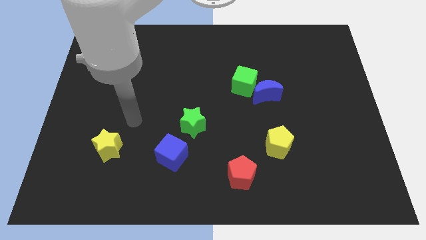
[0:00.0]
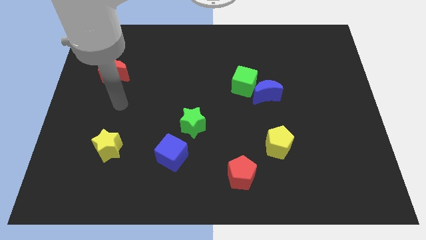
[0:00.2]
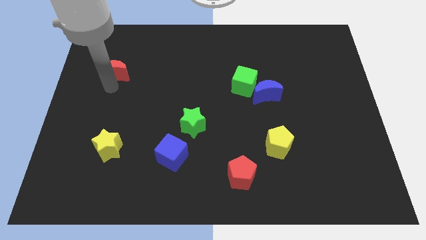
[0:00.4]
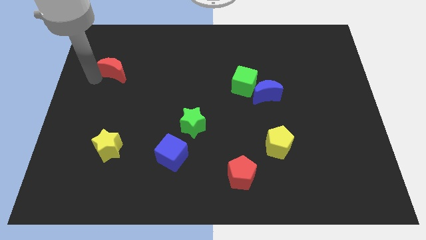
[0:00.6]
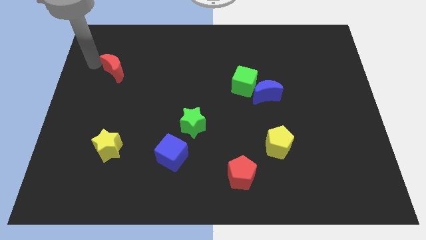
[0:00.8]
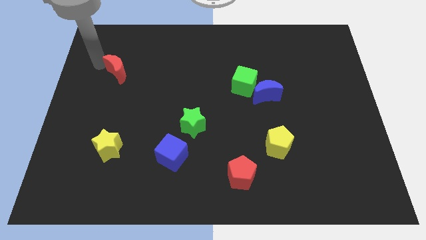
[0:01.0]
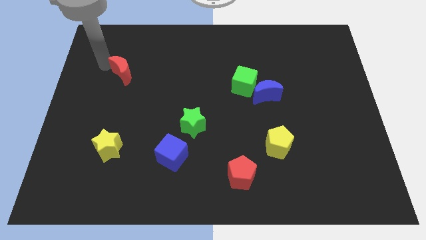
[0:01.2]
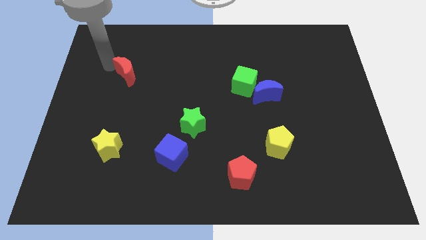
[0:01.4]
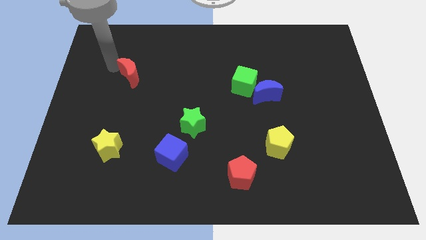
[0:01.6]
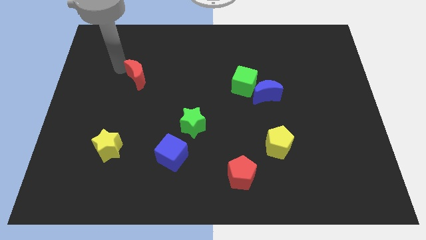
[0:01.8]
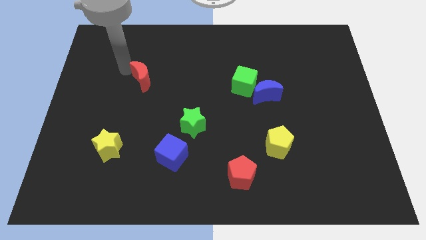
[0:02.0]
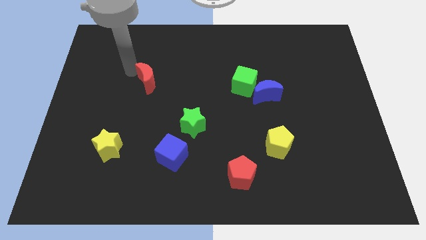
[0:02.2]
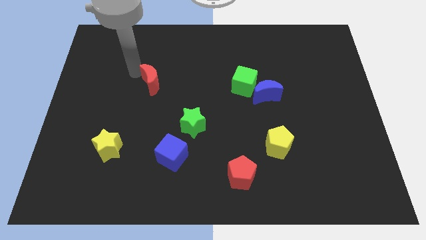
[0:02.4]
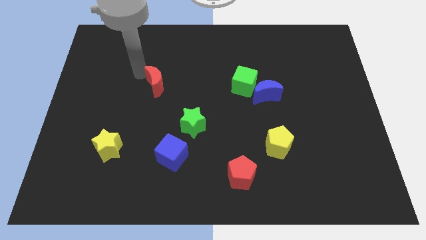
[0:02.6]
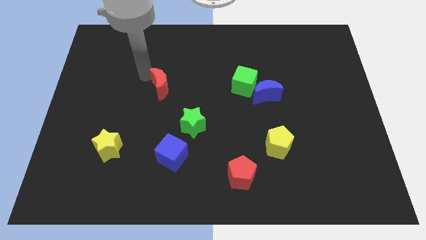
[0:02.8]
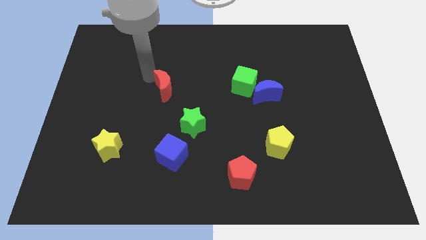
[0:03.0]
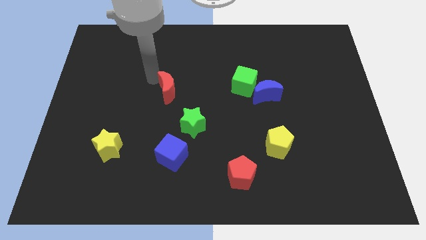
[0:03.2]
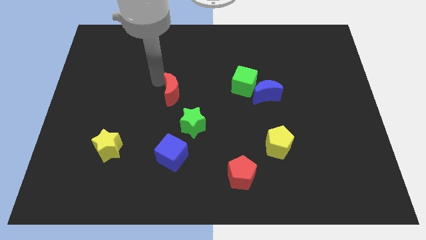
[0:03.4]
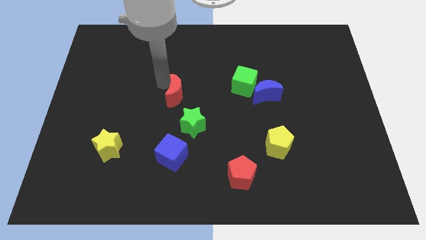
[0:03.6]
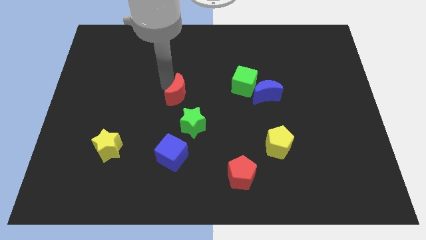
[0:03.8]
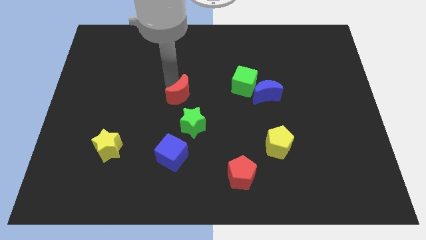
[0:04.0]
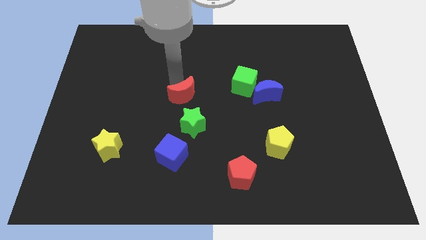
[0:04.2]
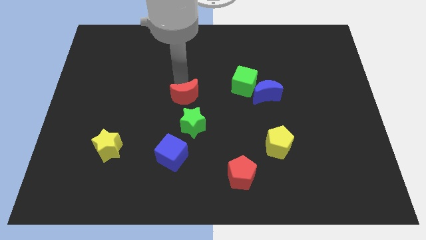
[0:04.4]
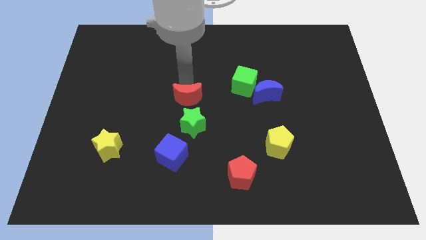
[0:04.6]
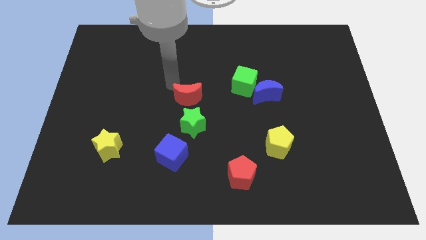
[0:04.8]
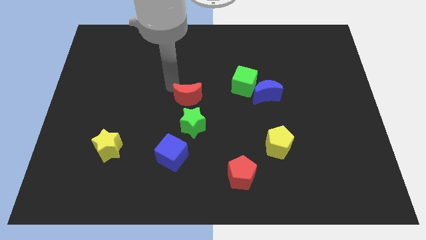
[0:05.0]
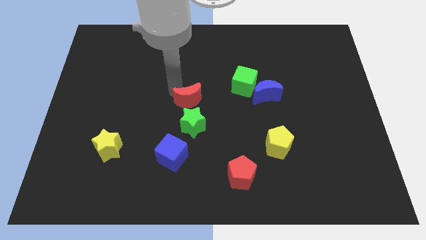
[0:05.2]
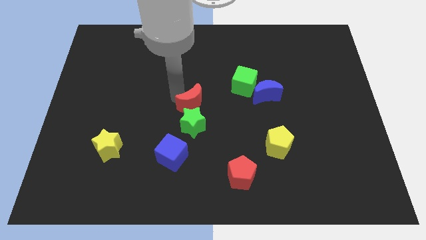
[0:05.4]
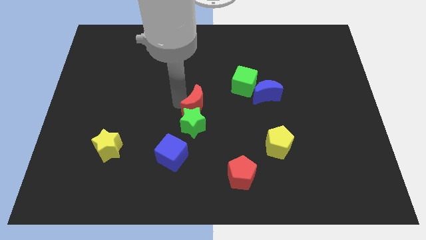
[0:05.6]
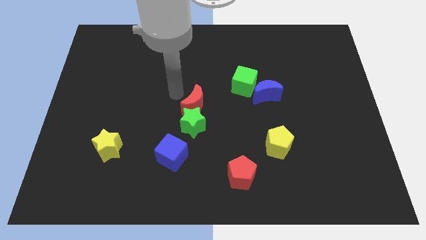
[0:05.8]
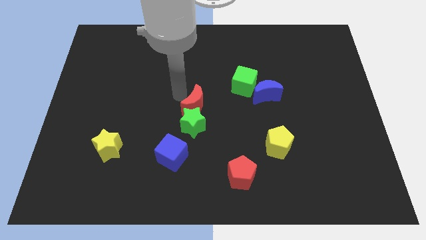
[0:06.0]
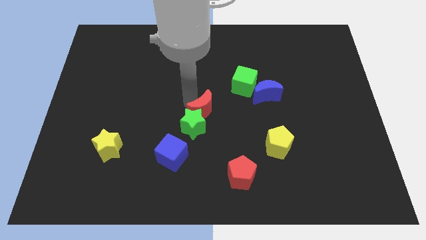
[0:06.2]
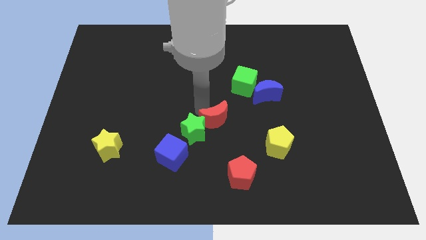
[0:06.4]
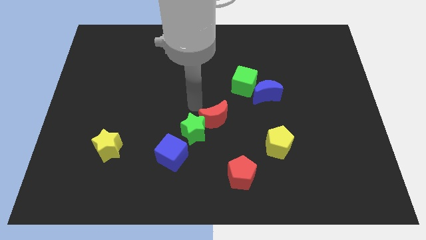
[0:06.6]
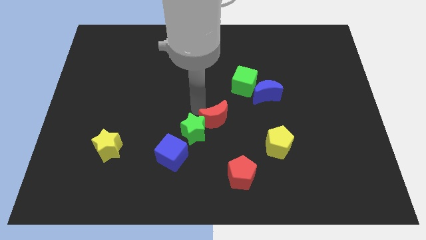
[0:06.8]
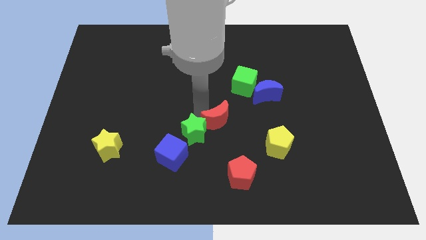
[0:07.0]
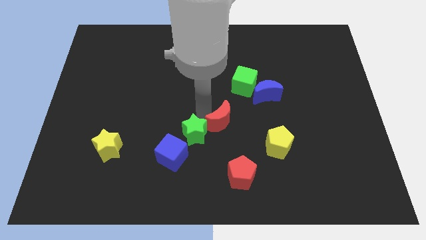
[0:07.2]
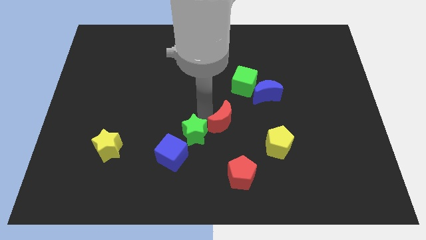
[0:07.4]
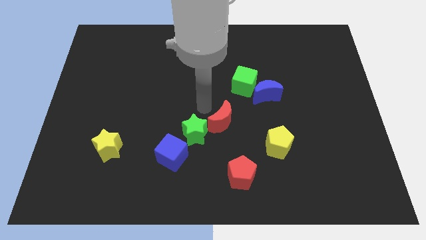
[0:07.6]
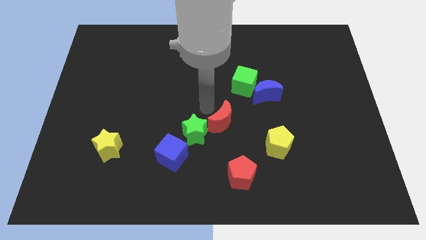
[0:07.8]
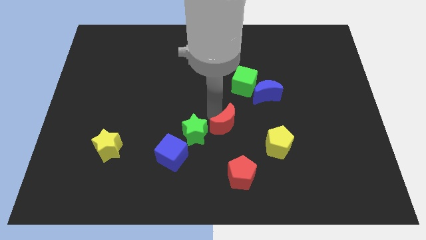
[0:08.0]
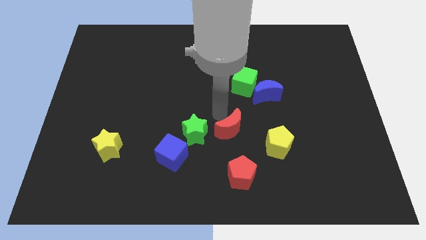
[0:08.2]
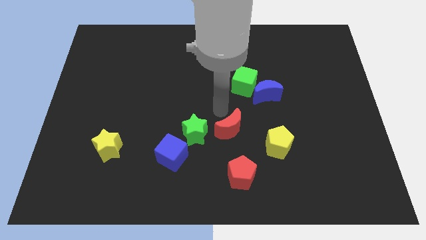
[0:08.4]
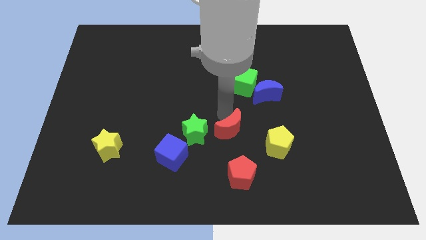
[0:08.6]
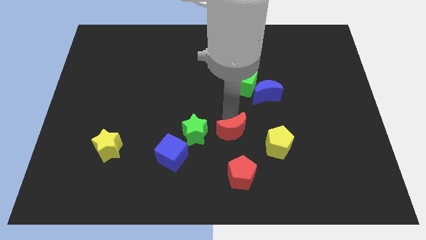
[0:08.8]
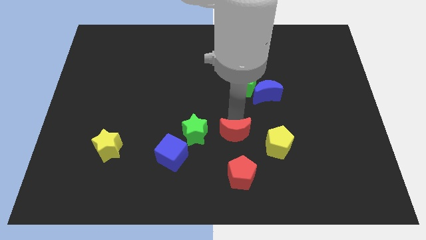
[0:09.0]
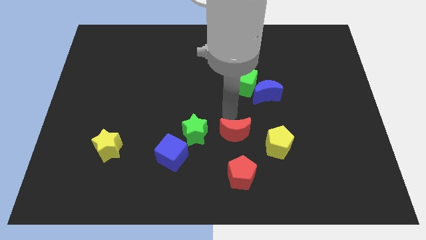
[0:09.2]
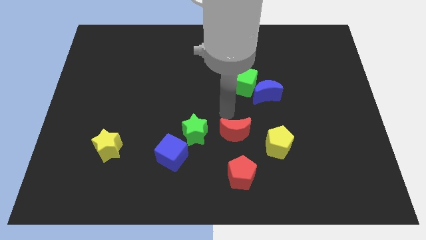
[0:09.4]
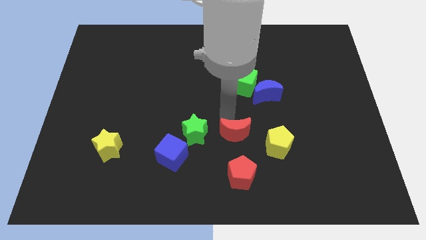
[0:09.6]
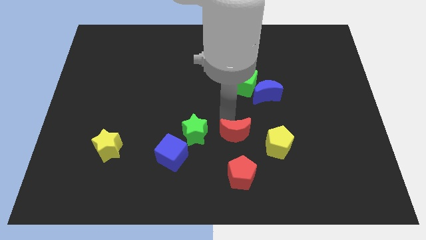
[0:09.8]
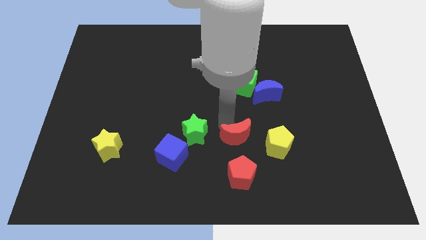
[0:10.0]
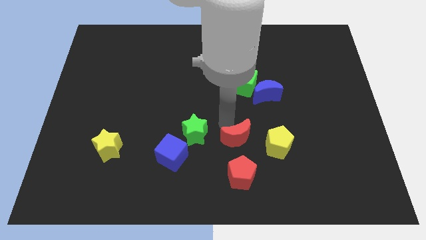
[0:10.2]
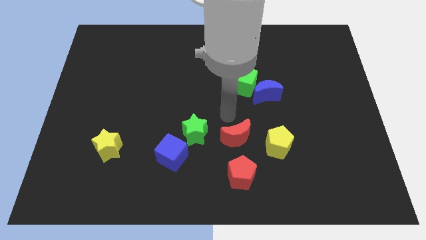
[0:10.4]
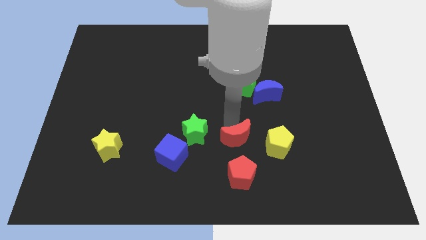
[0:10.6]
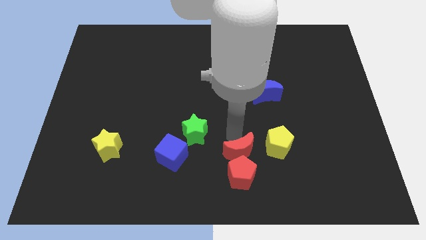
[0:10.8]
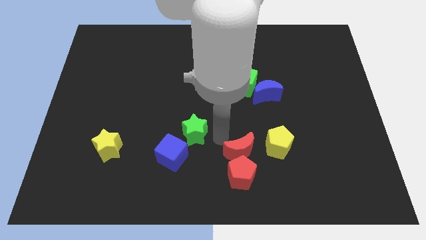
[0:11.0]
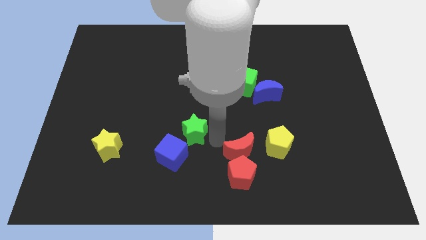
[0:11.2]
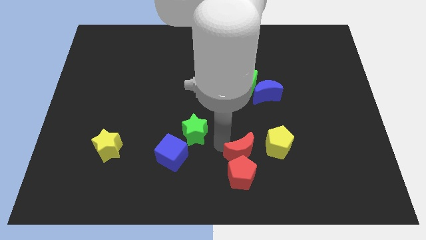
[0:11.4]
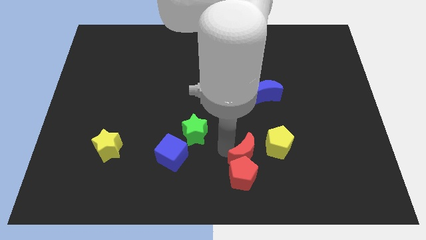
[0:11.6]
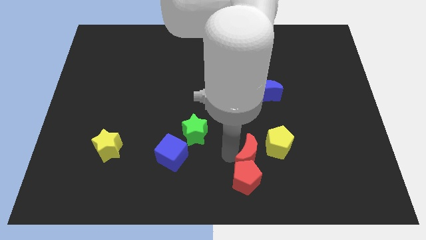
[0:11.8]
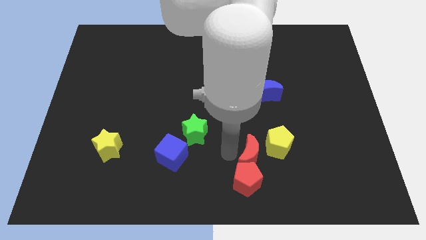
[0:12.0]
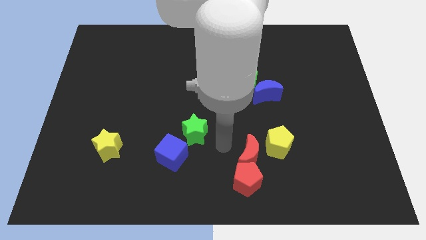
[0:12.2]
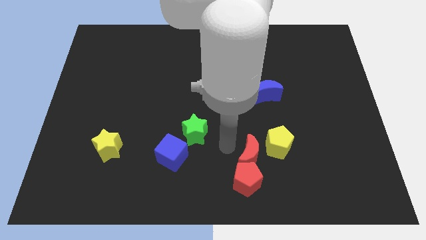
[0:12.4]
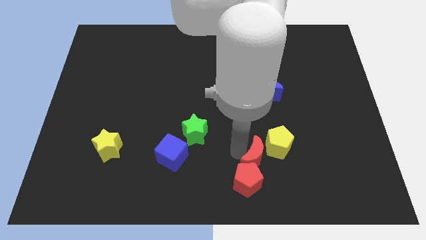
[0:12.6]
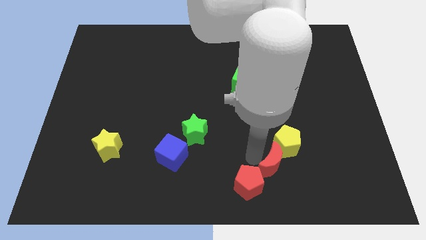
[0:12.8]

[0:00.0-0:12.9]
move the red moon to the right of the red pentagon

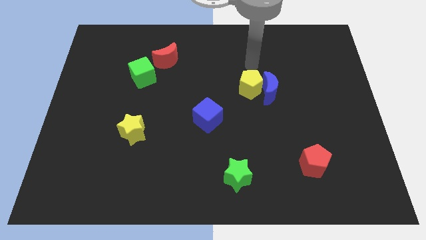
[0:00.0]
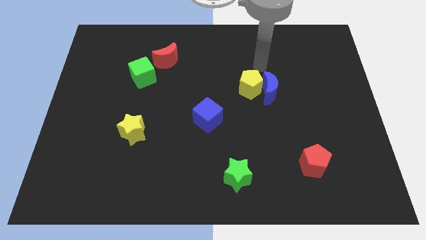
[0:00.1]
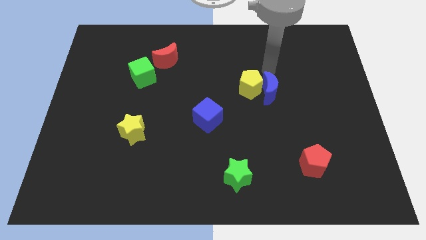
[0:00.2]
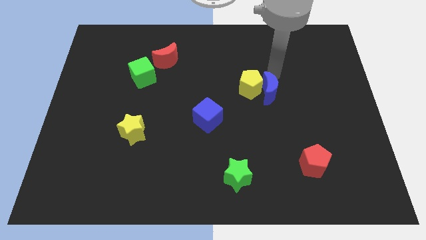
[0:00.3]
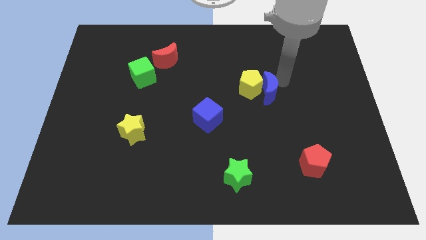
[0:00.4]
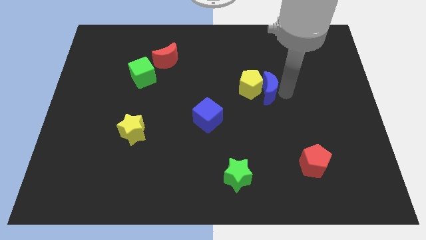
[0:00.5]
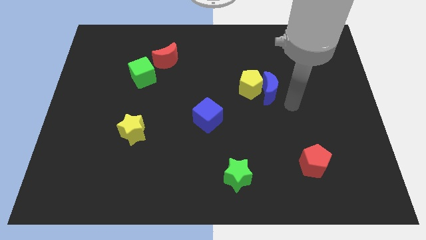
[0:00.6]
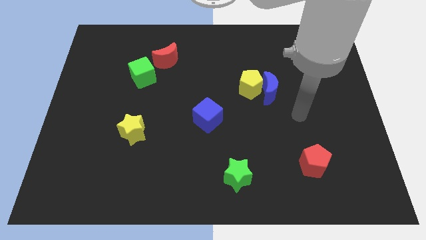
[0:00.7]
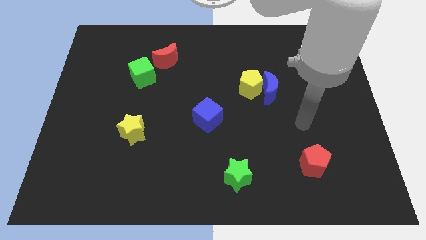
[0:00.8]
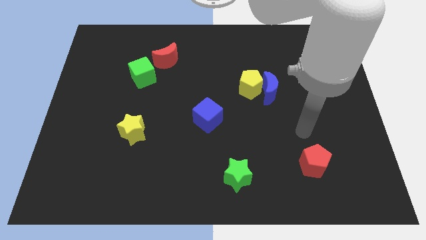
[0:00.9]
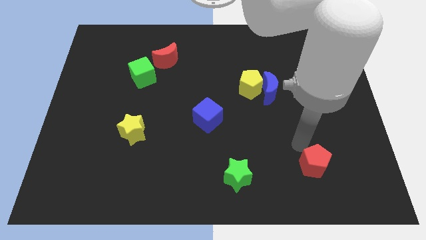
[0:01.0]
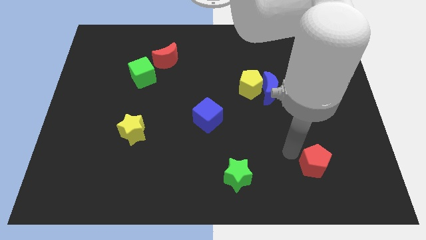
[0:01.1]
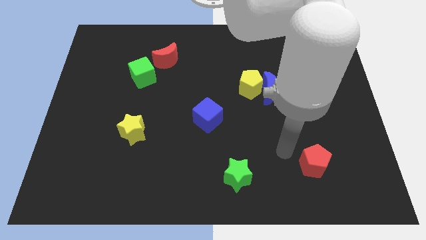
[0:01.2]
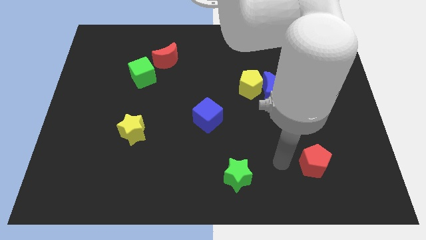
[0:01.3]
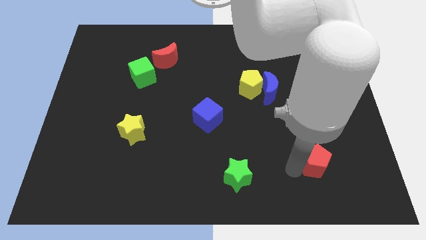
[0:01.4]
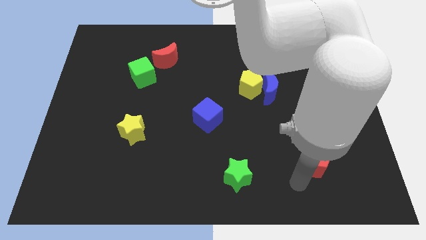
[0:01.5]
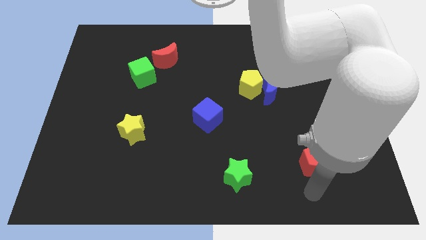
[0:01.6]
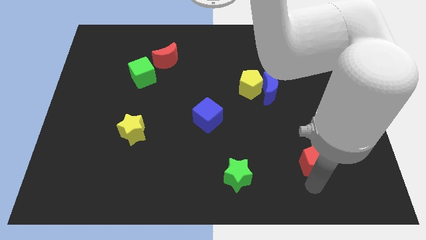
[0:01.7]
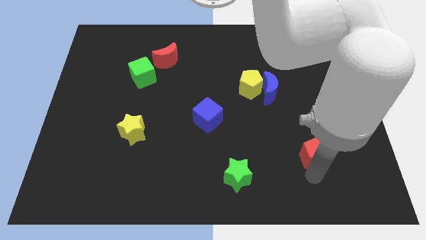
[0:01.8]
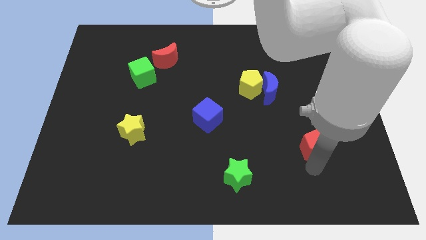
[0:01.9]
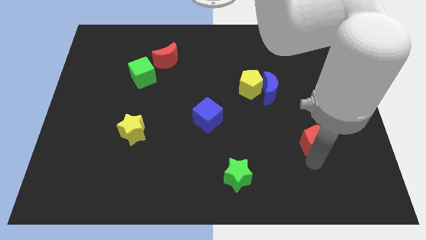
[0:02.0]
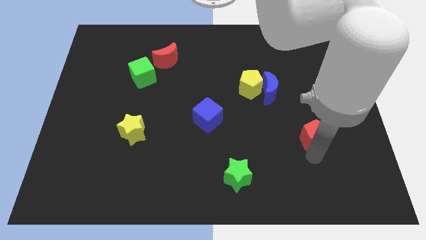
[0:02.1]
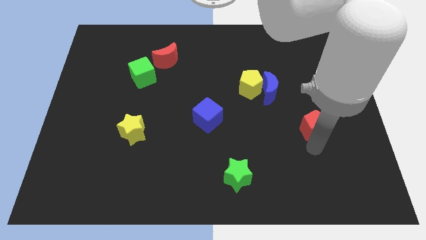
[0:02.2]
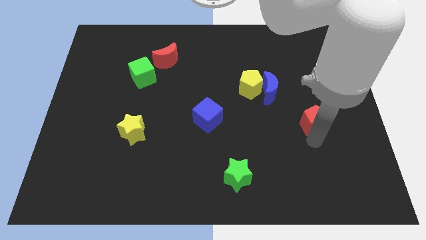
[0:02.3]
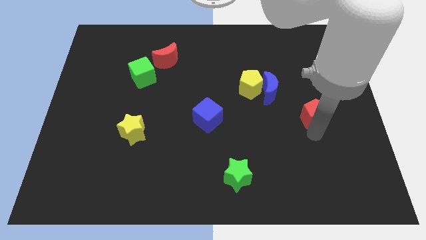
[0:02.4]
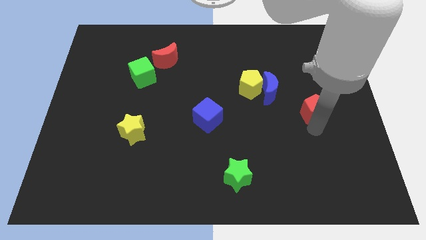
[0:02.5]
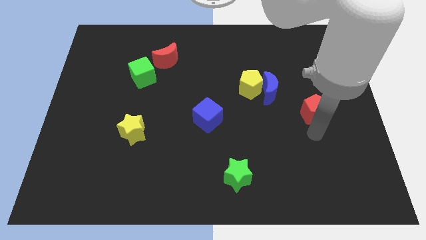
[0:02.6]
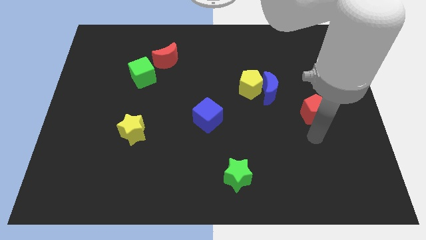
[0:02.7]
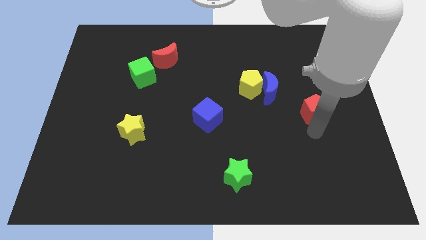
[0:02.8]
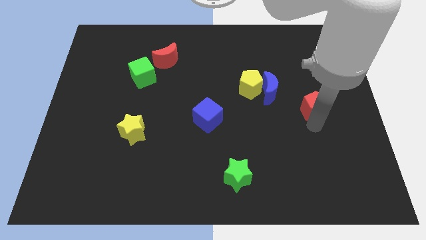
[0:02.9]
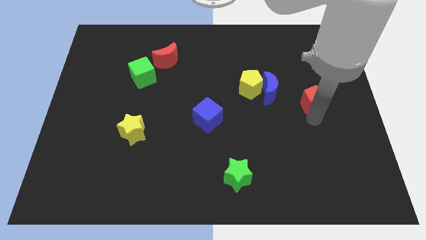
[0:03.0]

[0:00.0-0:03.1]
push the red pentagon to the right of the blue moon
